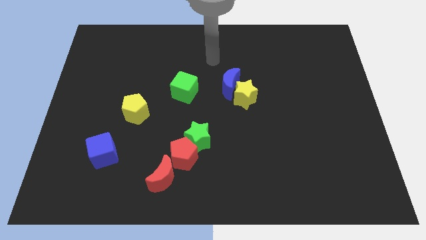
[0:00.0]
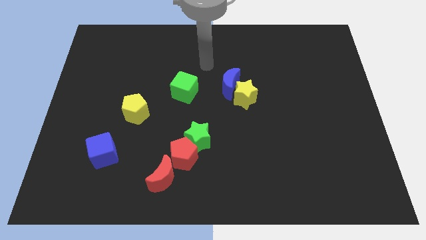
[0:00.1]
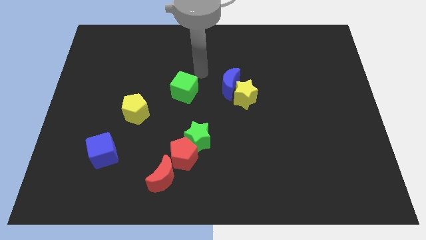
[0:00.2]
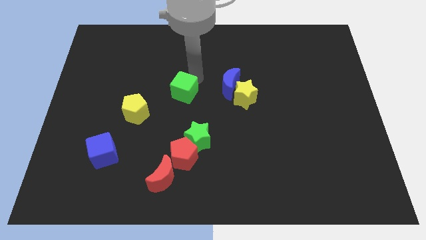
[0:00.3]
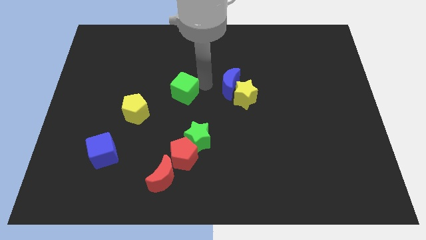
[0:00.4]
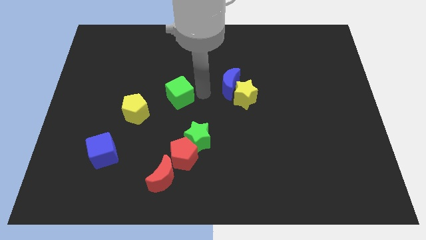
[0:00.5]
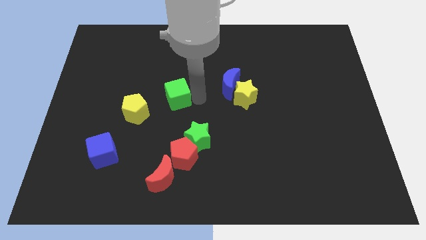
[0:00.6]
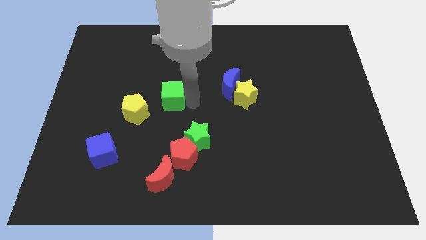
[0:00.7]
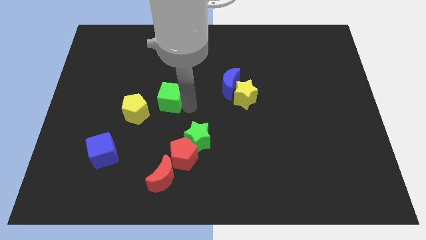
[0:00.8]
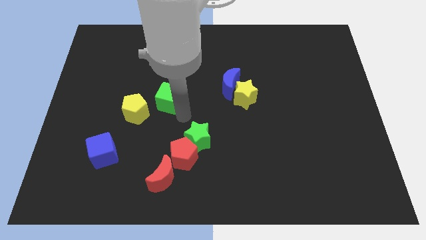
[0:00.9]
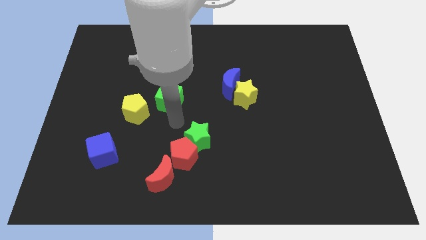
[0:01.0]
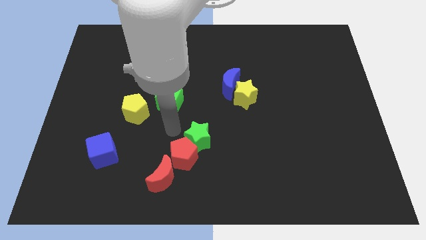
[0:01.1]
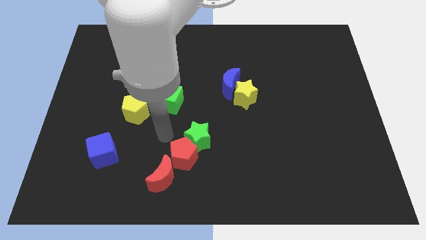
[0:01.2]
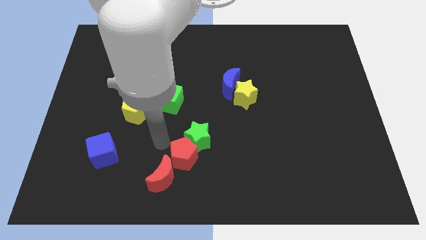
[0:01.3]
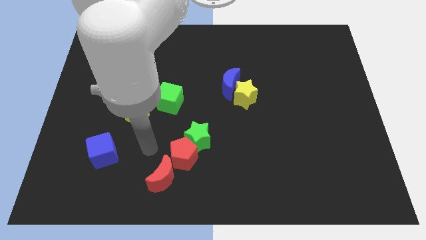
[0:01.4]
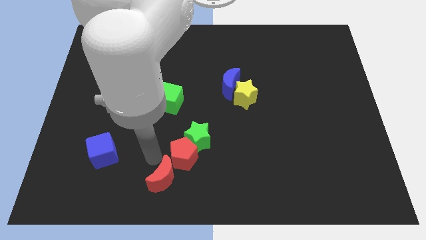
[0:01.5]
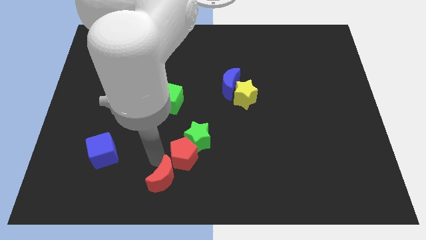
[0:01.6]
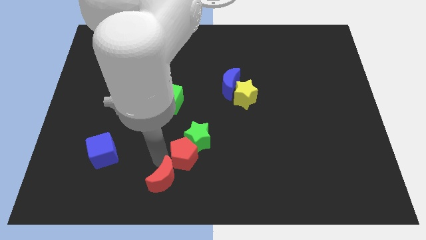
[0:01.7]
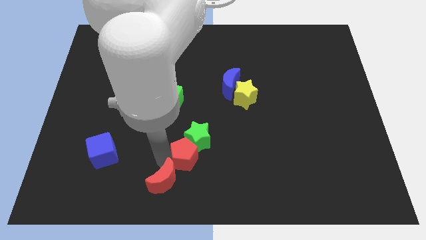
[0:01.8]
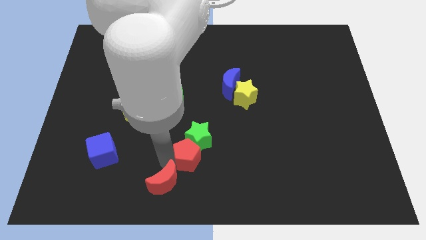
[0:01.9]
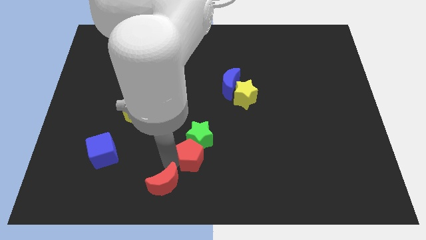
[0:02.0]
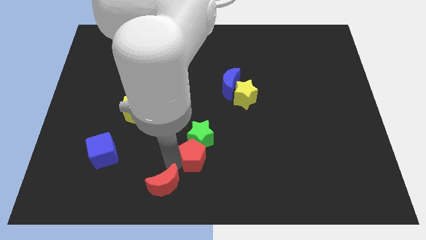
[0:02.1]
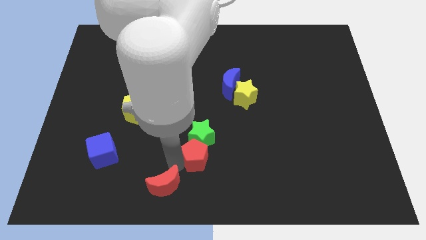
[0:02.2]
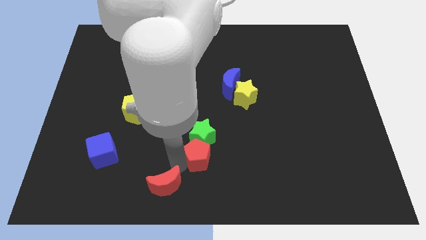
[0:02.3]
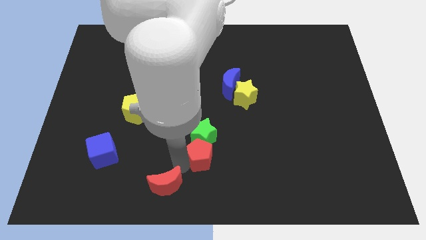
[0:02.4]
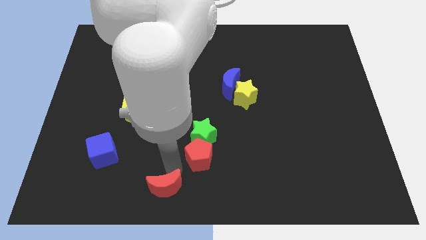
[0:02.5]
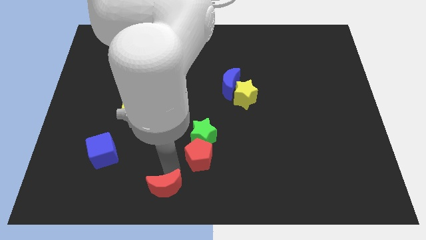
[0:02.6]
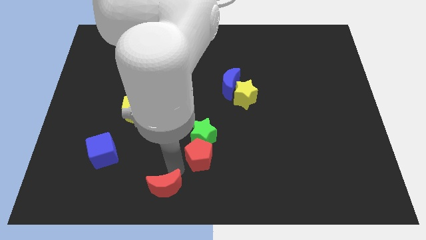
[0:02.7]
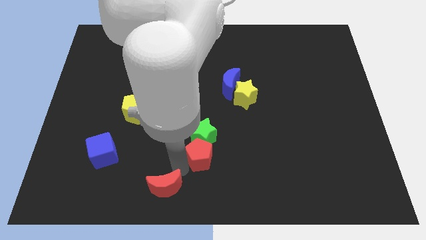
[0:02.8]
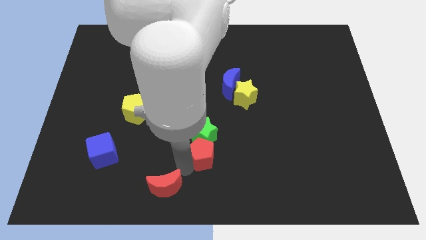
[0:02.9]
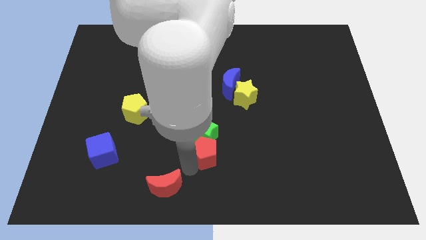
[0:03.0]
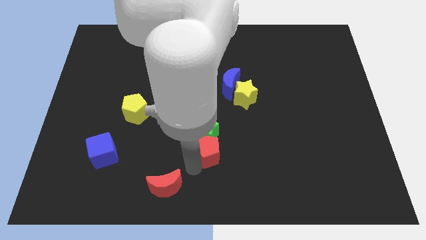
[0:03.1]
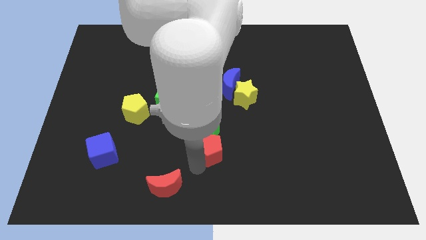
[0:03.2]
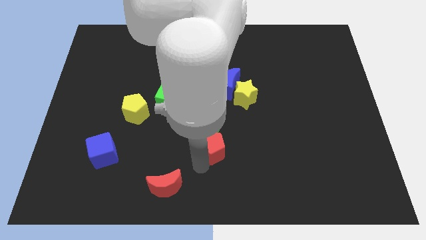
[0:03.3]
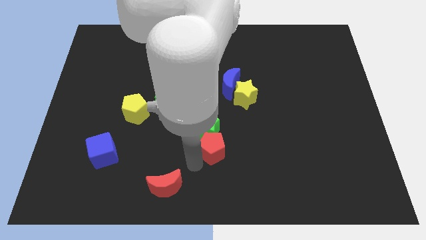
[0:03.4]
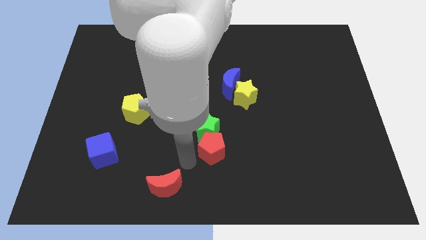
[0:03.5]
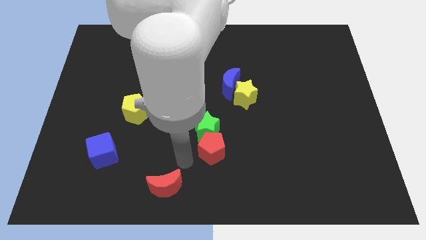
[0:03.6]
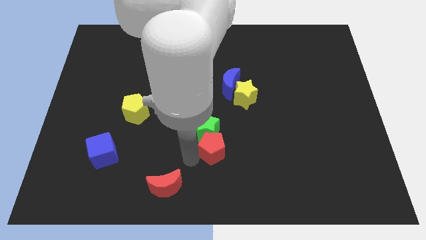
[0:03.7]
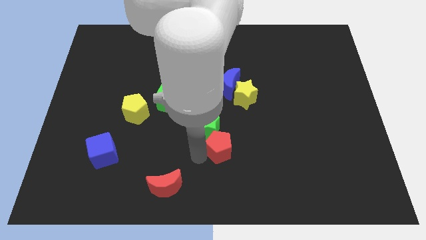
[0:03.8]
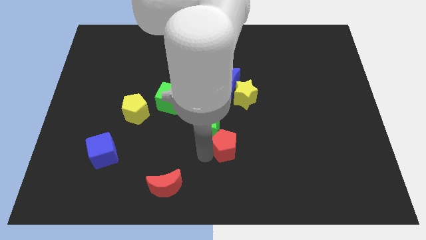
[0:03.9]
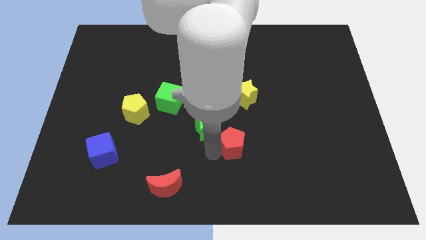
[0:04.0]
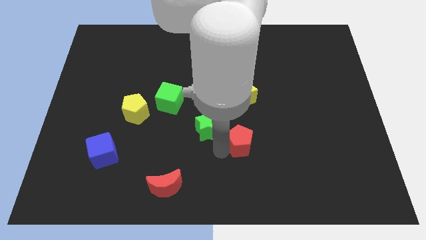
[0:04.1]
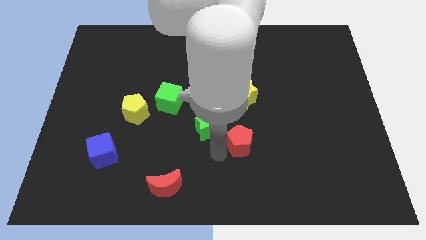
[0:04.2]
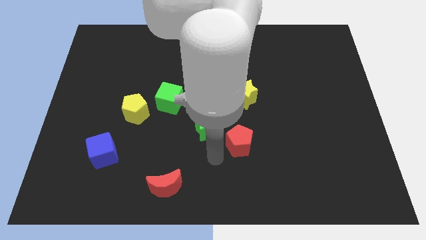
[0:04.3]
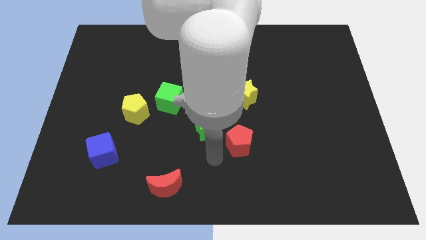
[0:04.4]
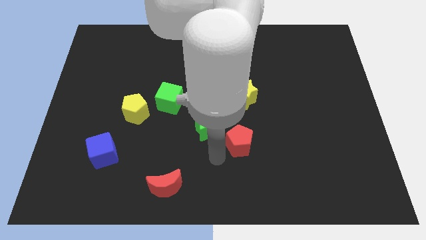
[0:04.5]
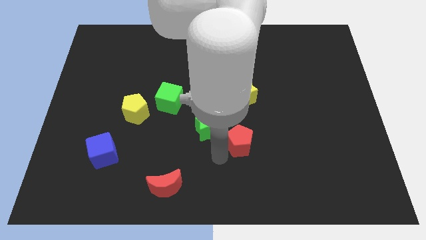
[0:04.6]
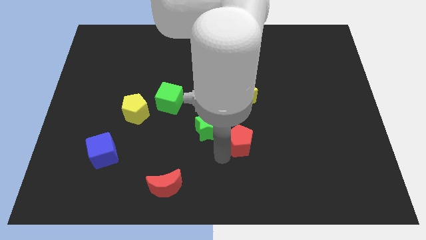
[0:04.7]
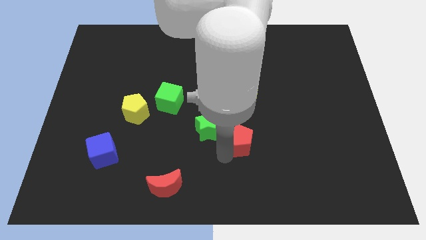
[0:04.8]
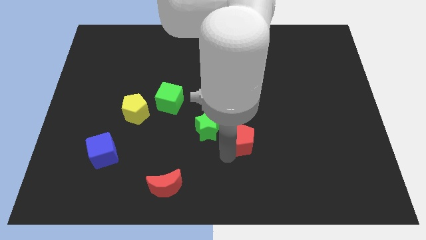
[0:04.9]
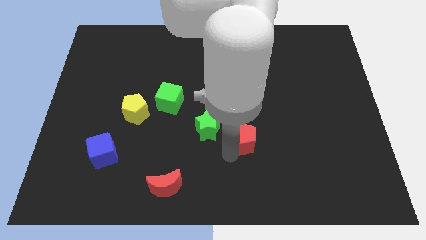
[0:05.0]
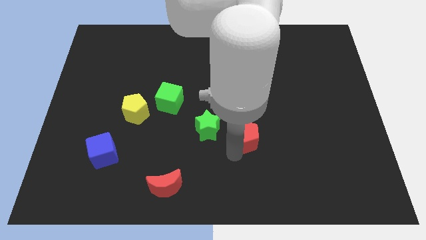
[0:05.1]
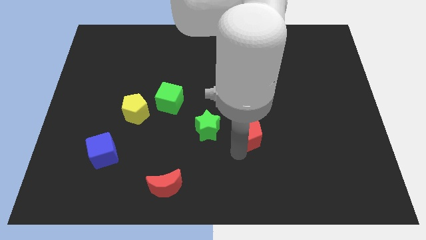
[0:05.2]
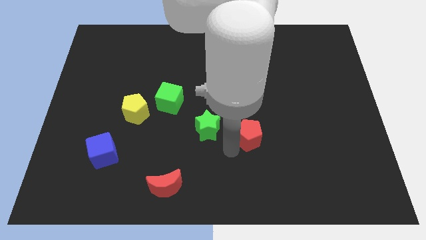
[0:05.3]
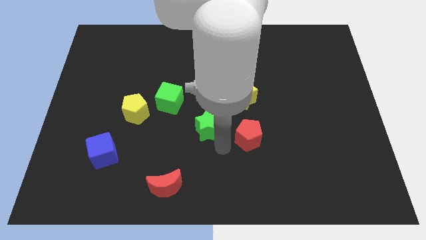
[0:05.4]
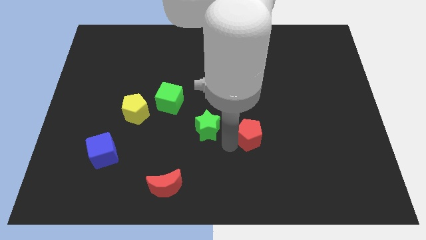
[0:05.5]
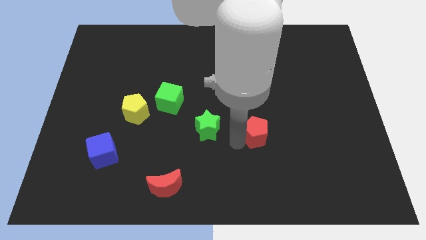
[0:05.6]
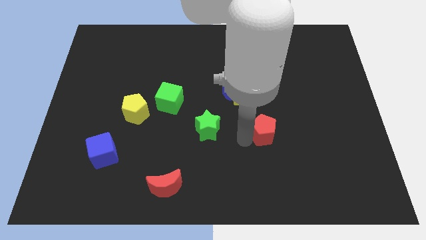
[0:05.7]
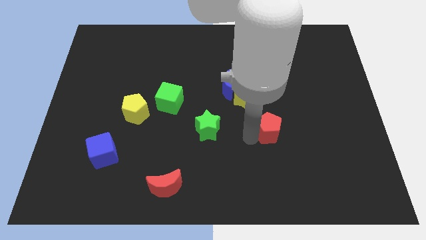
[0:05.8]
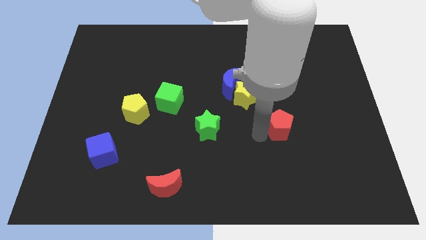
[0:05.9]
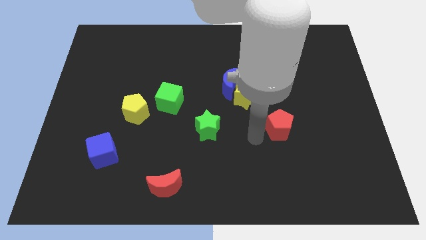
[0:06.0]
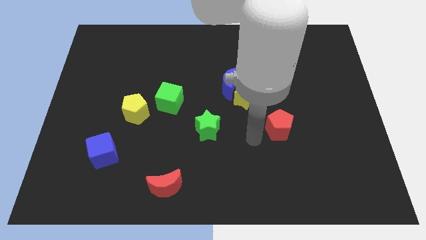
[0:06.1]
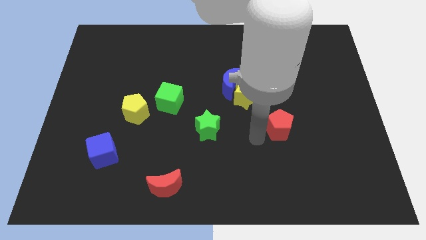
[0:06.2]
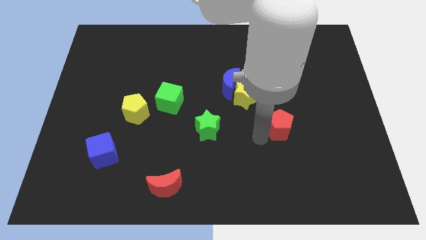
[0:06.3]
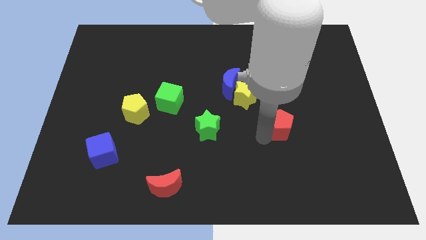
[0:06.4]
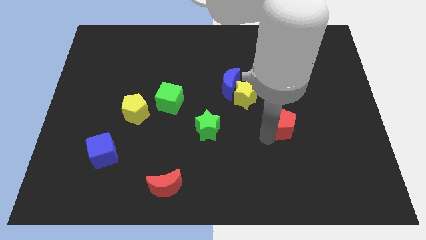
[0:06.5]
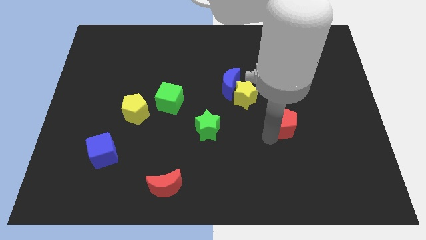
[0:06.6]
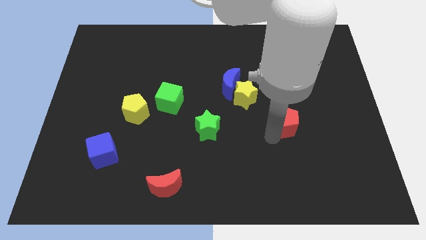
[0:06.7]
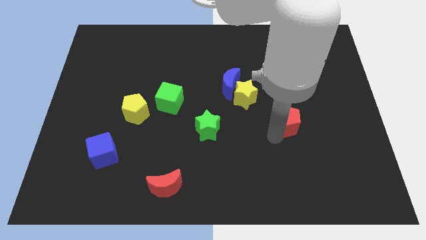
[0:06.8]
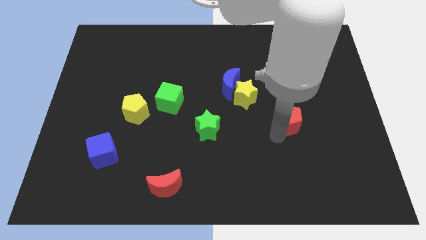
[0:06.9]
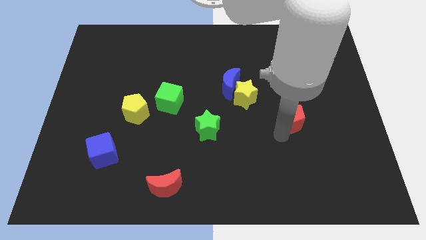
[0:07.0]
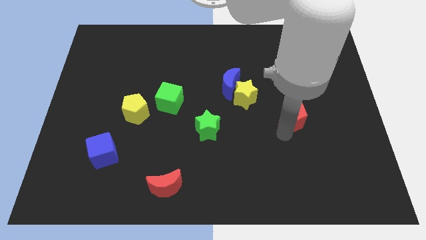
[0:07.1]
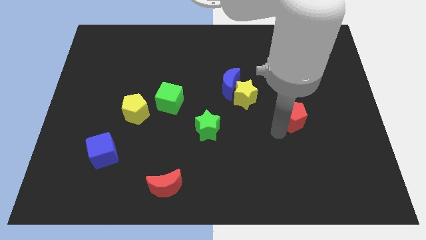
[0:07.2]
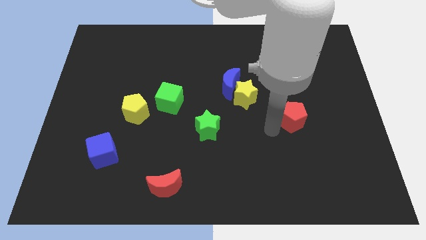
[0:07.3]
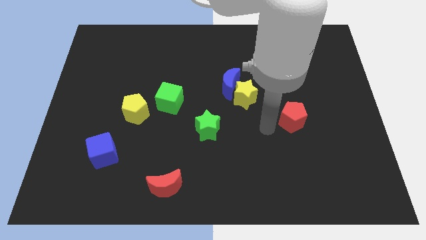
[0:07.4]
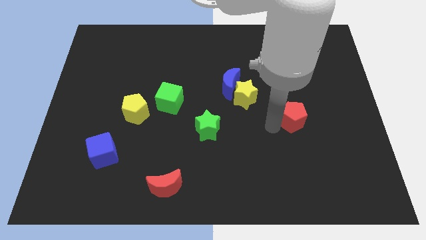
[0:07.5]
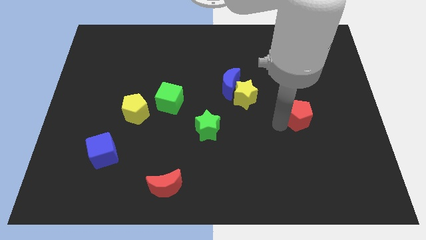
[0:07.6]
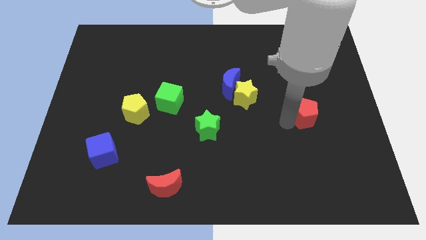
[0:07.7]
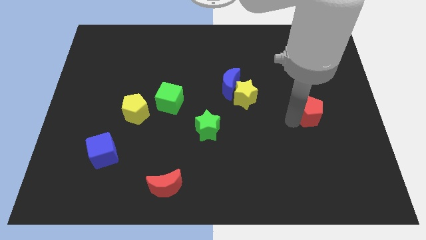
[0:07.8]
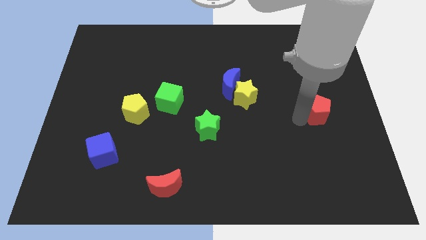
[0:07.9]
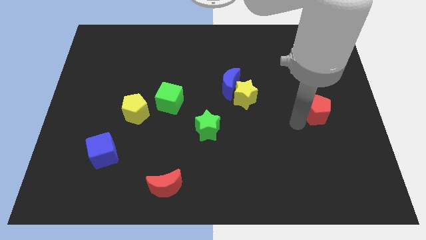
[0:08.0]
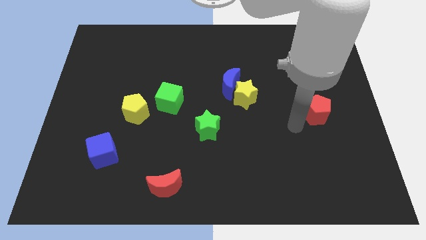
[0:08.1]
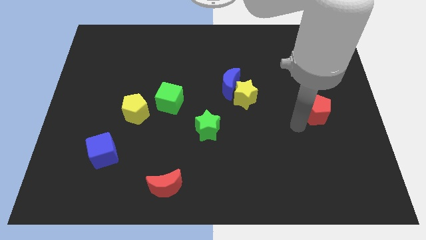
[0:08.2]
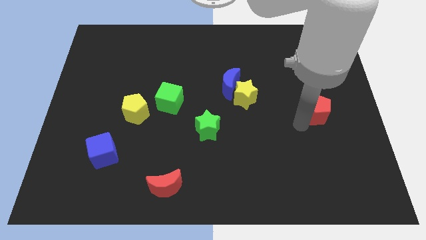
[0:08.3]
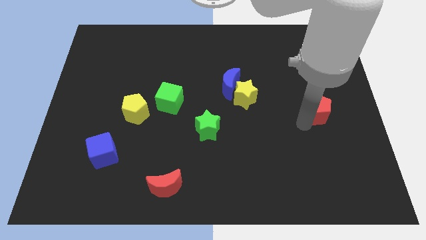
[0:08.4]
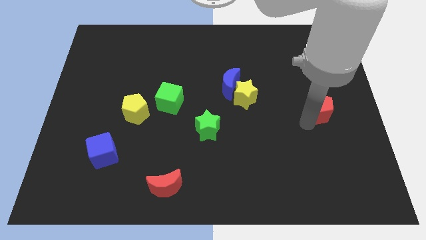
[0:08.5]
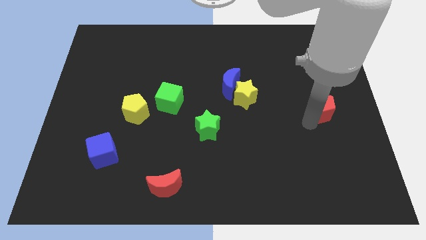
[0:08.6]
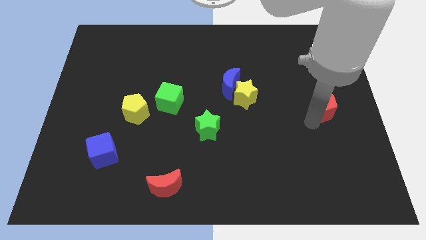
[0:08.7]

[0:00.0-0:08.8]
put the red pentagon to the center right
